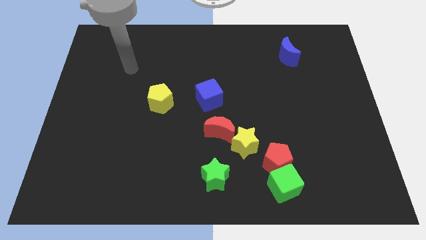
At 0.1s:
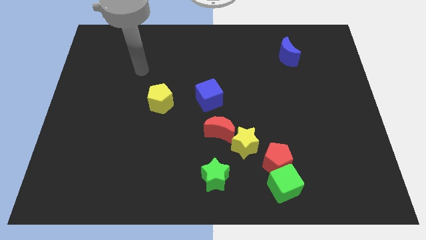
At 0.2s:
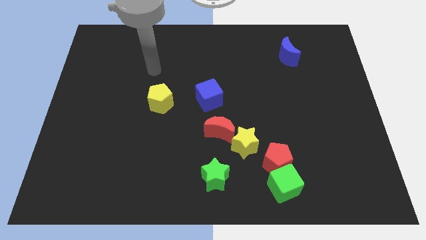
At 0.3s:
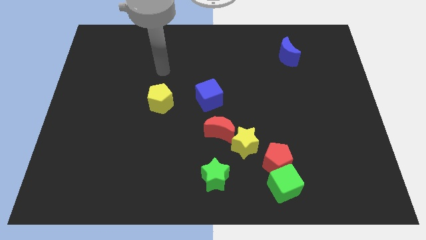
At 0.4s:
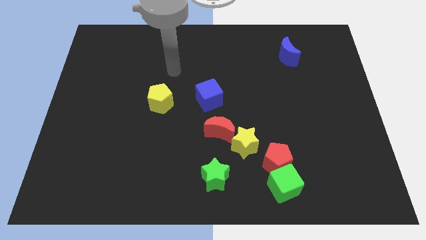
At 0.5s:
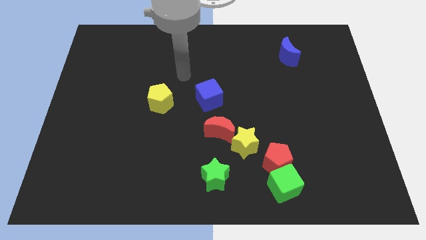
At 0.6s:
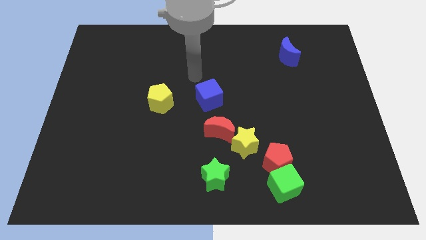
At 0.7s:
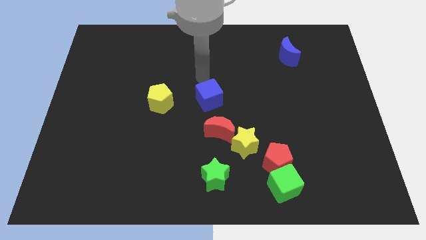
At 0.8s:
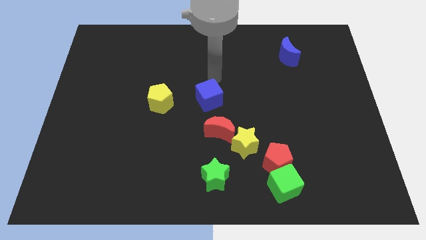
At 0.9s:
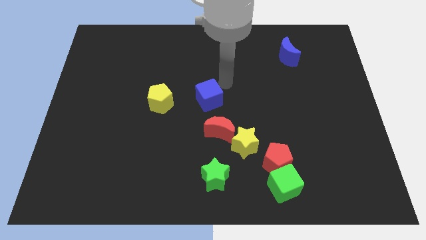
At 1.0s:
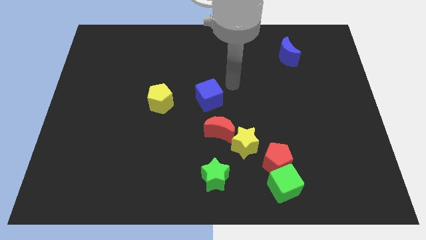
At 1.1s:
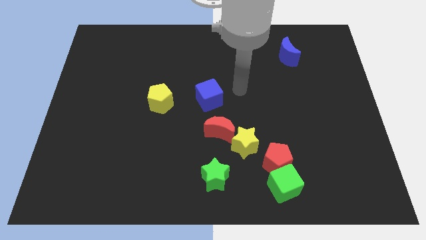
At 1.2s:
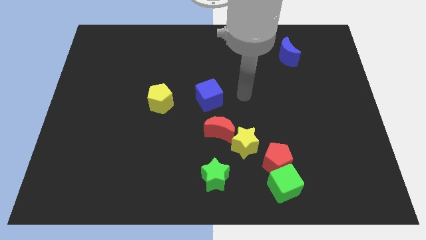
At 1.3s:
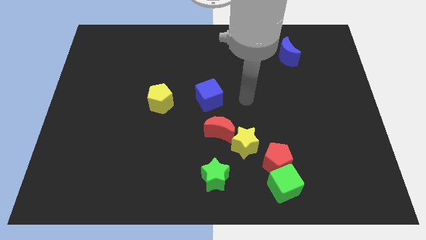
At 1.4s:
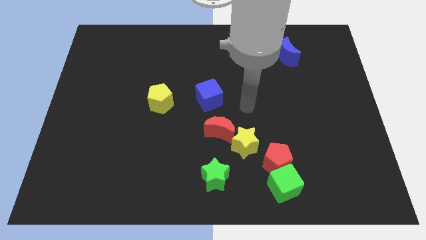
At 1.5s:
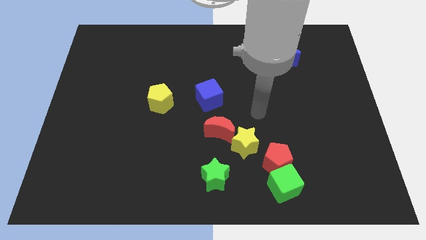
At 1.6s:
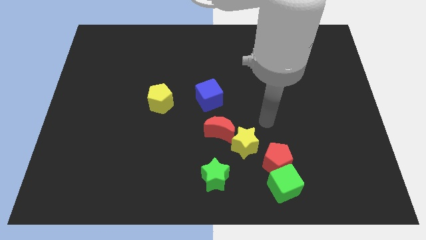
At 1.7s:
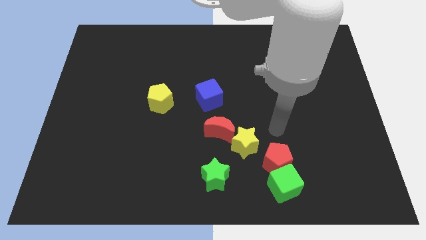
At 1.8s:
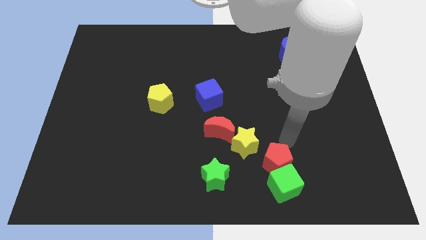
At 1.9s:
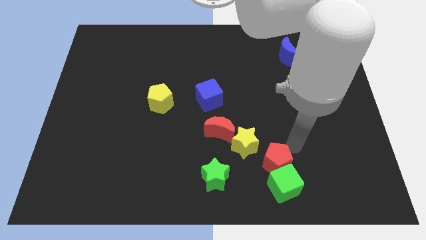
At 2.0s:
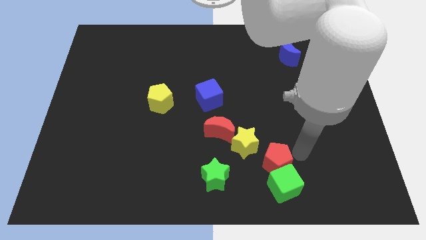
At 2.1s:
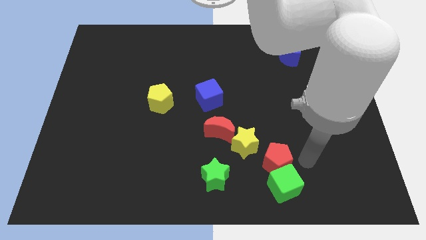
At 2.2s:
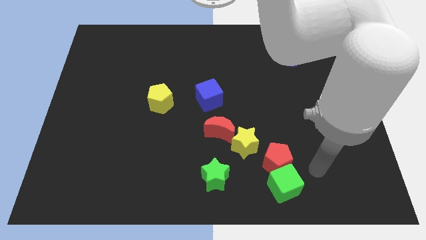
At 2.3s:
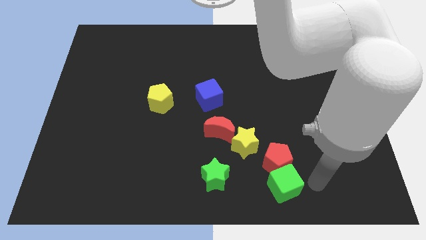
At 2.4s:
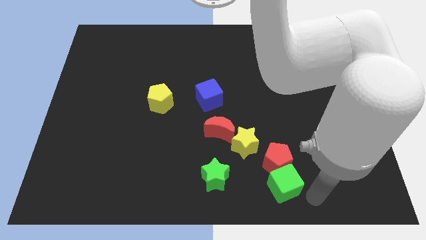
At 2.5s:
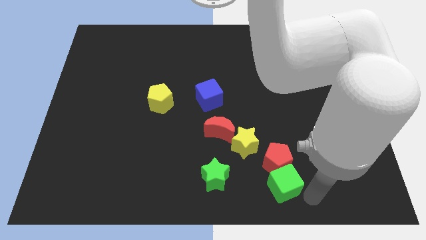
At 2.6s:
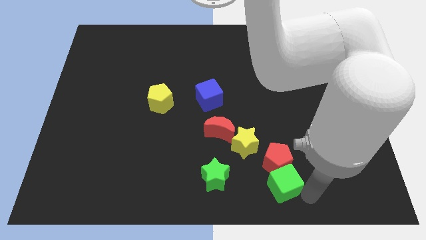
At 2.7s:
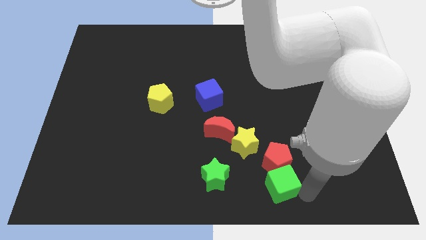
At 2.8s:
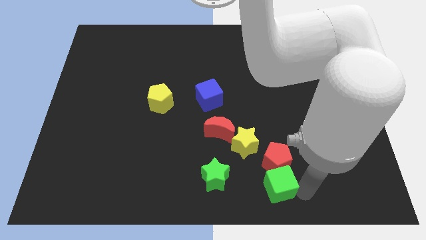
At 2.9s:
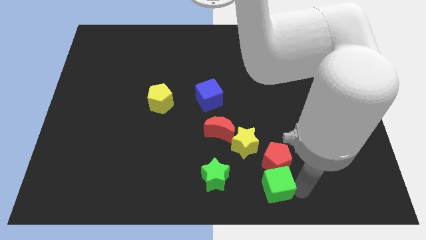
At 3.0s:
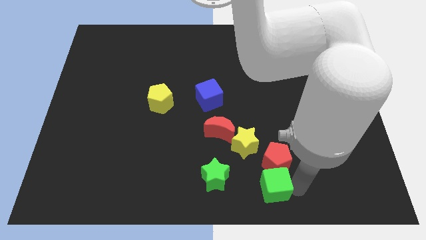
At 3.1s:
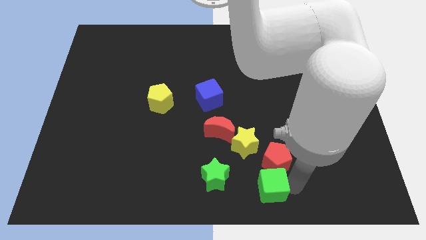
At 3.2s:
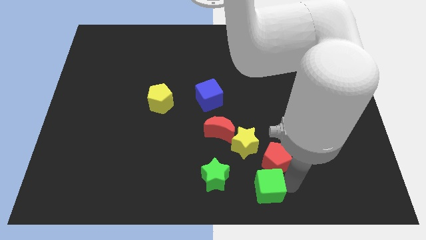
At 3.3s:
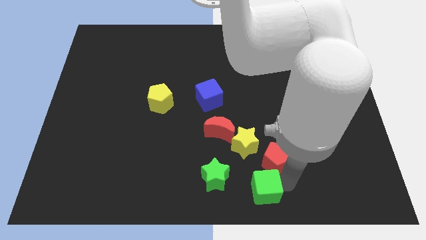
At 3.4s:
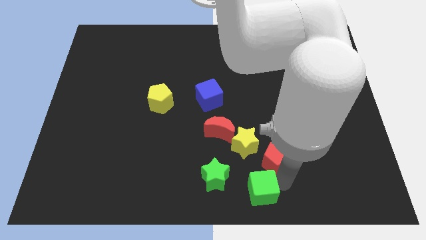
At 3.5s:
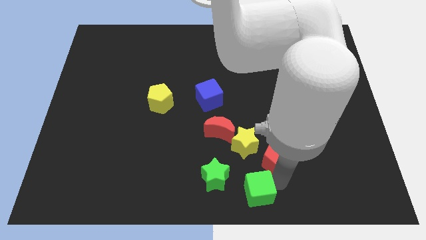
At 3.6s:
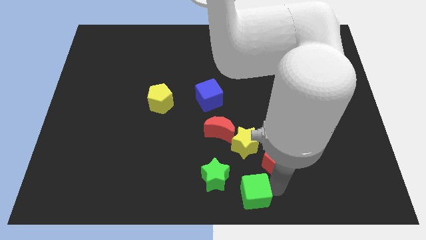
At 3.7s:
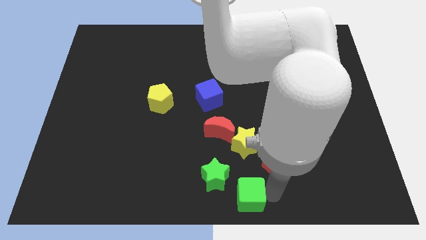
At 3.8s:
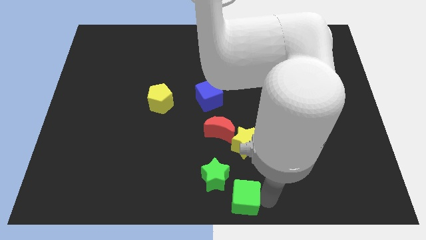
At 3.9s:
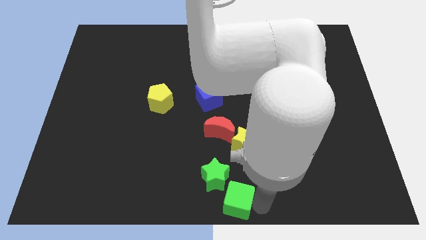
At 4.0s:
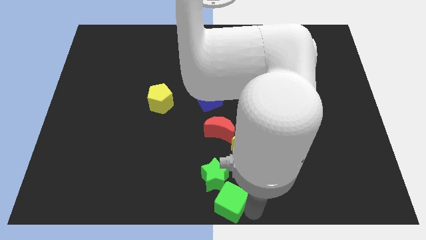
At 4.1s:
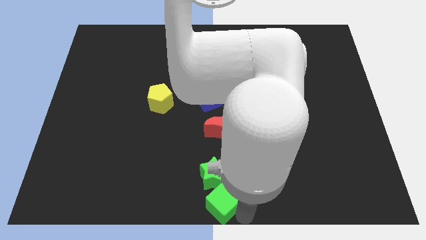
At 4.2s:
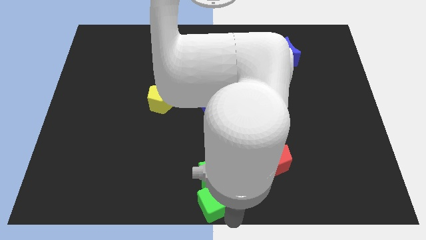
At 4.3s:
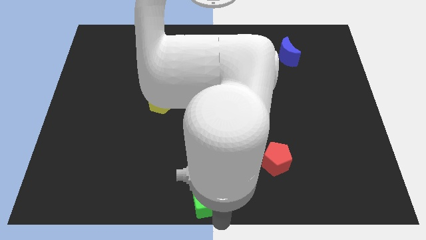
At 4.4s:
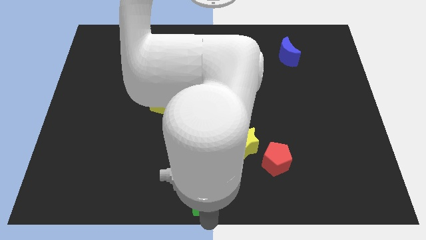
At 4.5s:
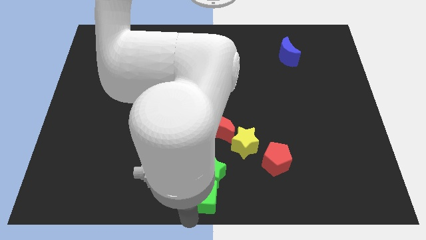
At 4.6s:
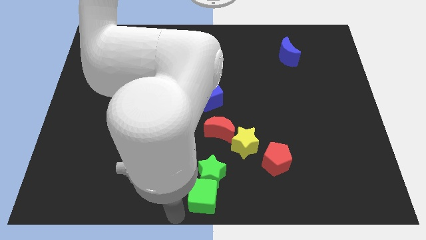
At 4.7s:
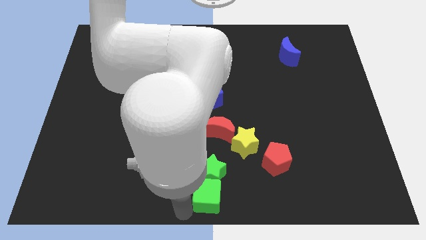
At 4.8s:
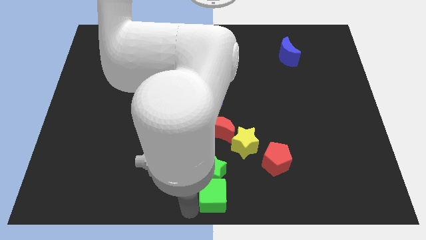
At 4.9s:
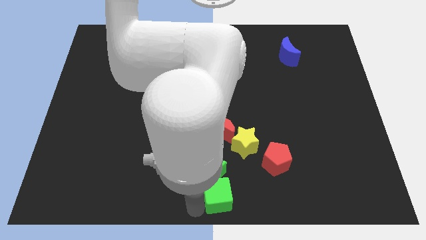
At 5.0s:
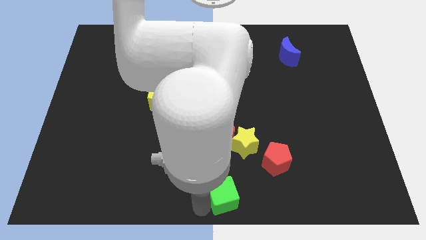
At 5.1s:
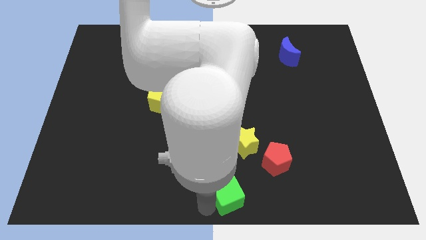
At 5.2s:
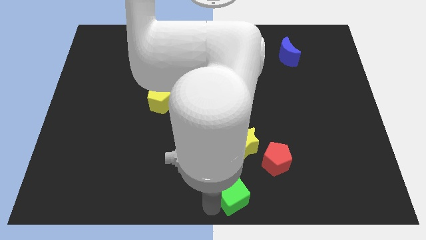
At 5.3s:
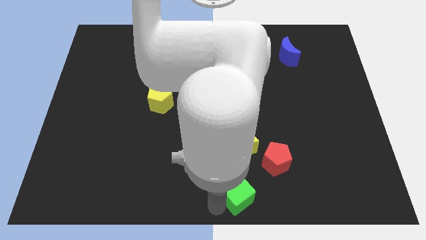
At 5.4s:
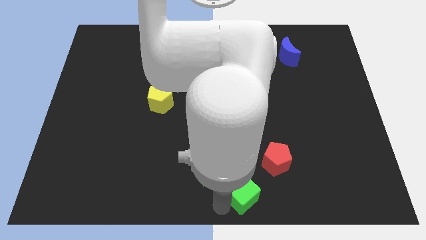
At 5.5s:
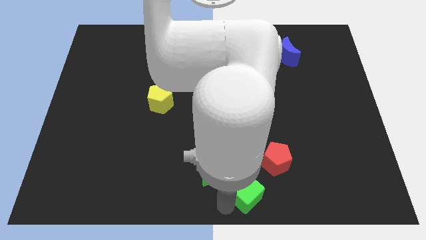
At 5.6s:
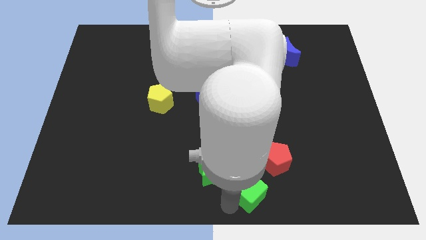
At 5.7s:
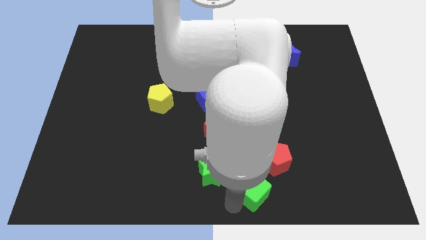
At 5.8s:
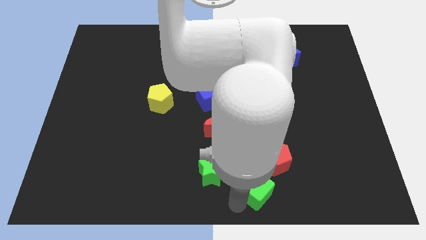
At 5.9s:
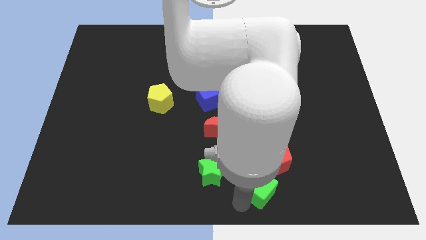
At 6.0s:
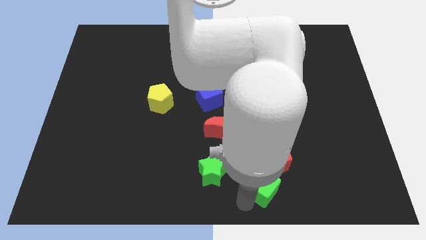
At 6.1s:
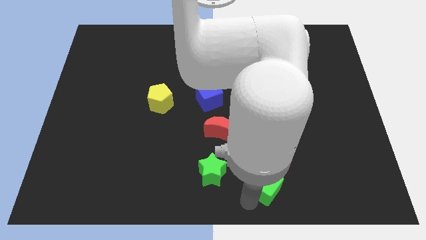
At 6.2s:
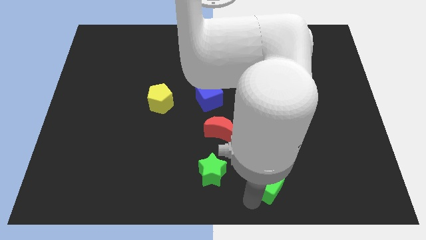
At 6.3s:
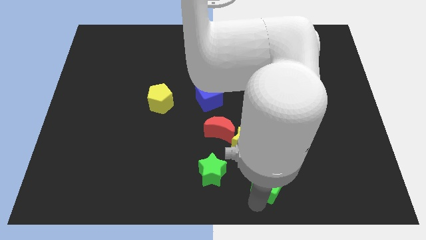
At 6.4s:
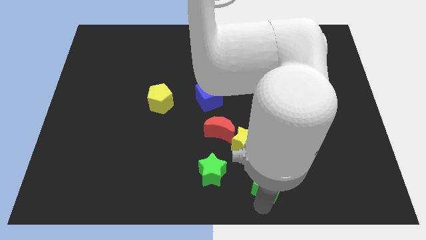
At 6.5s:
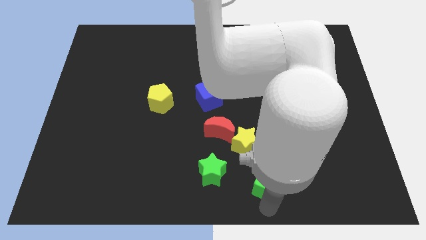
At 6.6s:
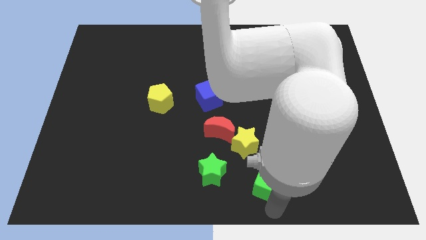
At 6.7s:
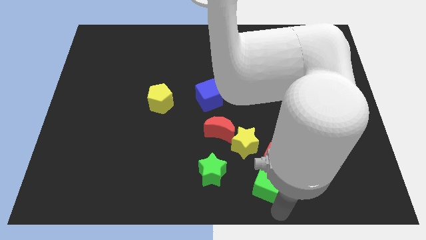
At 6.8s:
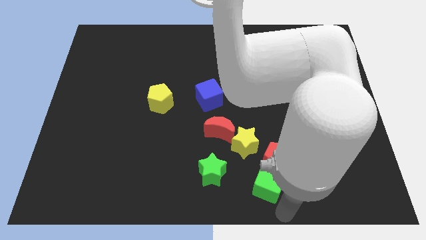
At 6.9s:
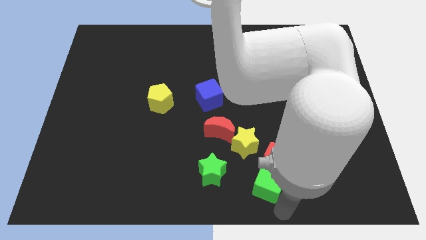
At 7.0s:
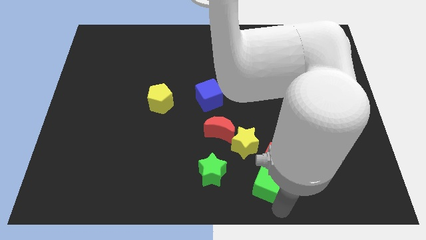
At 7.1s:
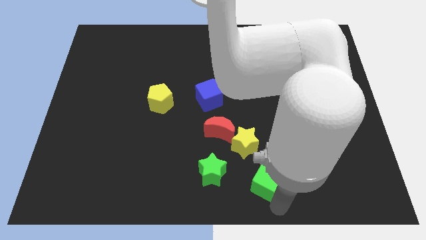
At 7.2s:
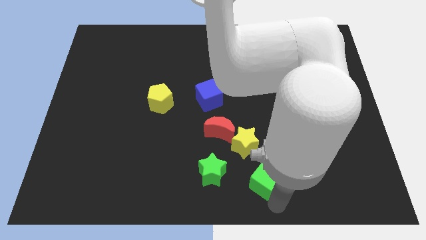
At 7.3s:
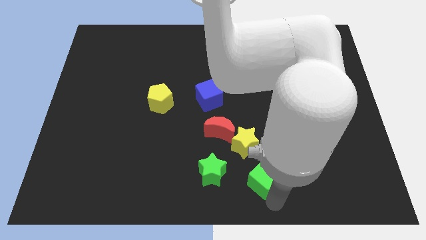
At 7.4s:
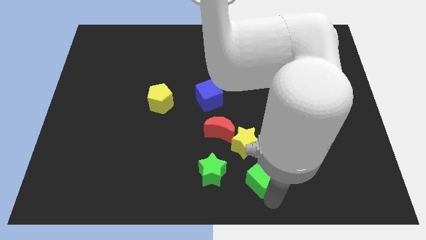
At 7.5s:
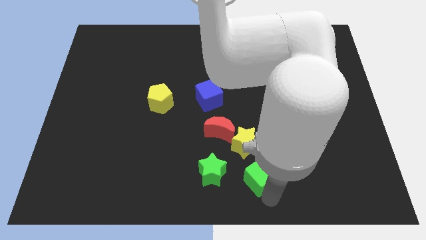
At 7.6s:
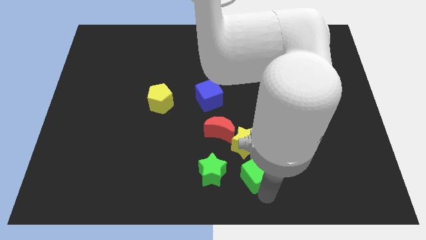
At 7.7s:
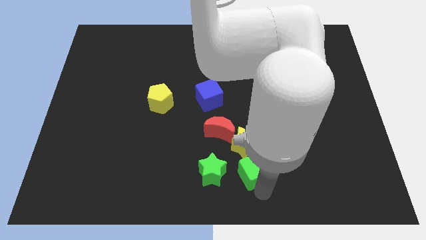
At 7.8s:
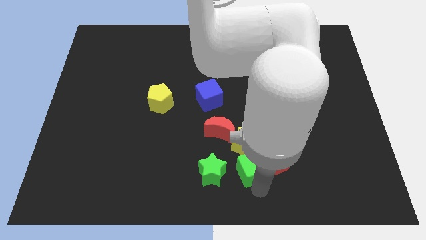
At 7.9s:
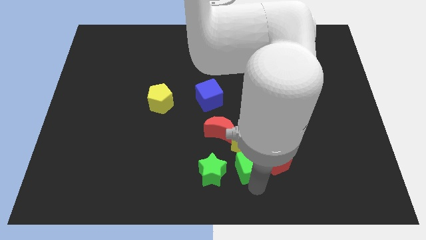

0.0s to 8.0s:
push the green cube towards the yellow star
